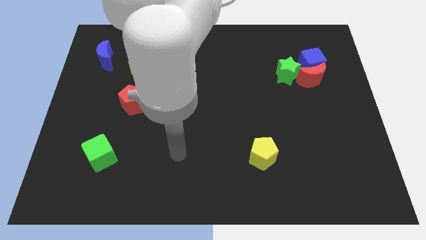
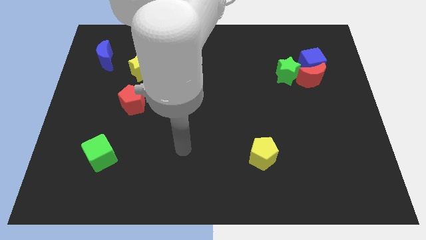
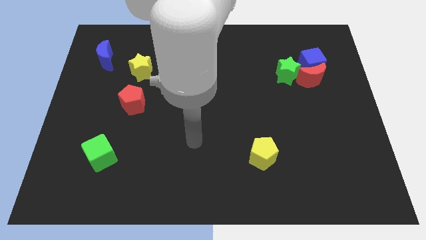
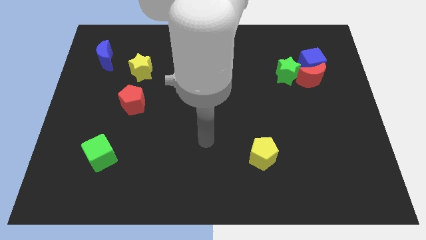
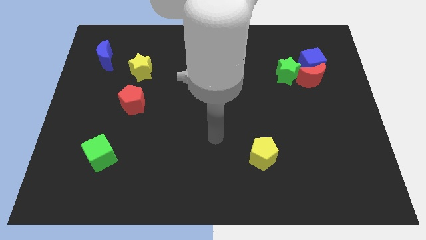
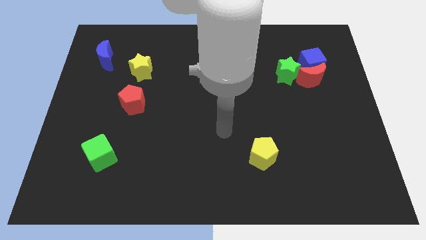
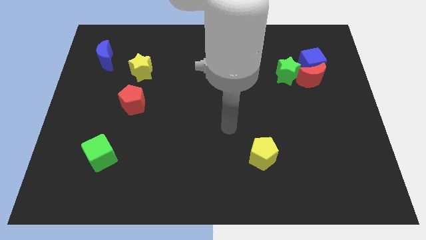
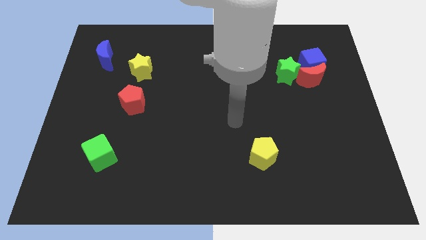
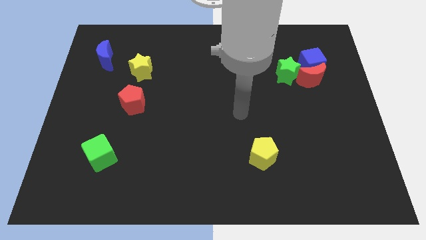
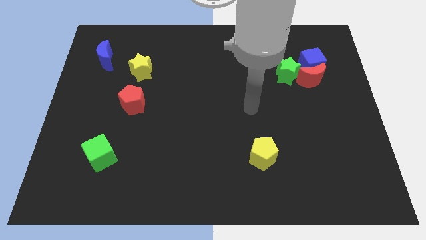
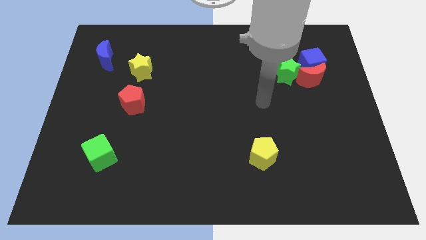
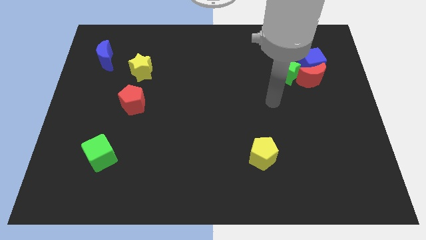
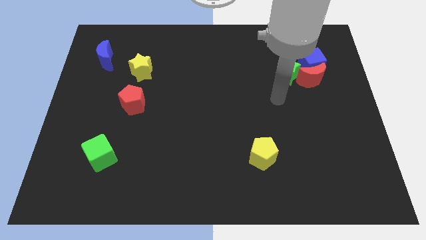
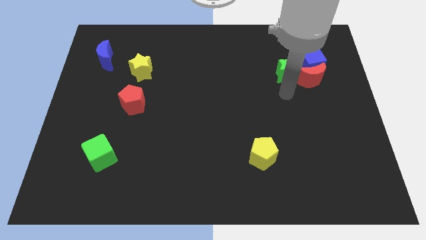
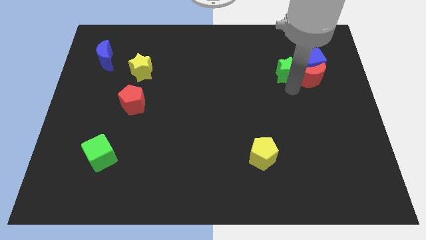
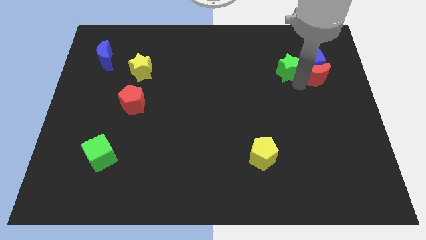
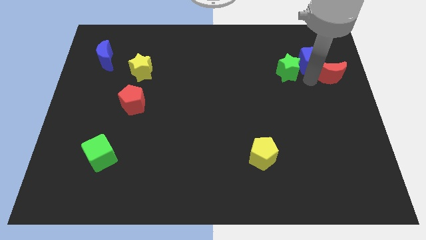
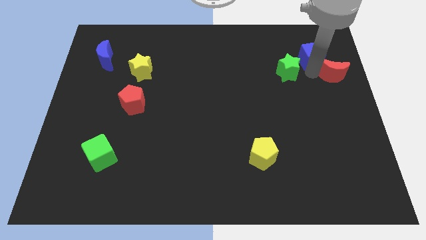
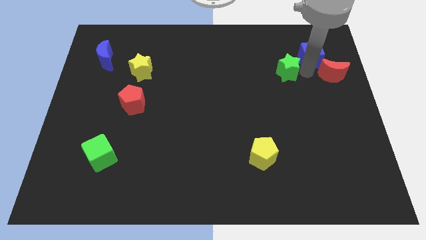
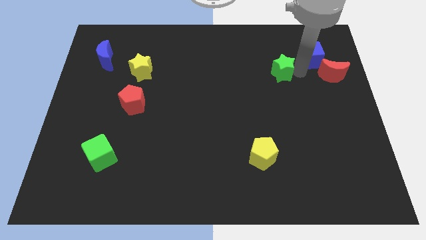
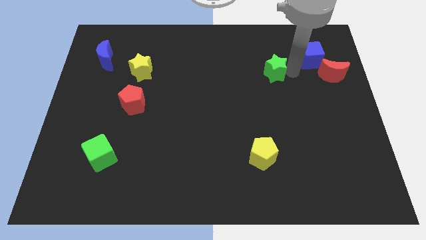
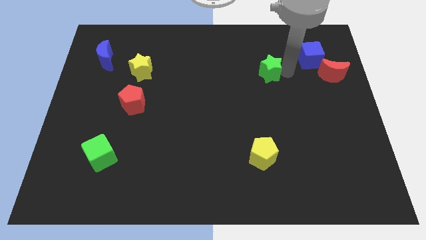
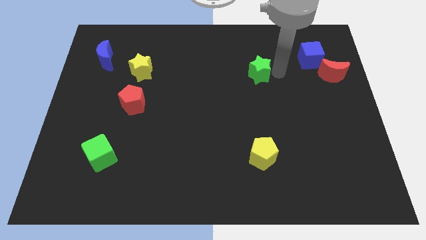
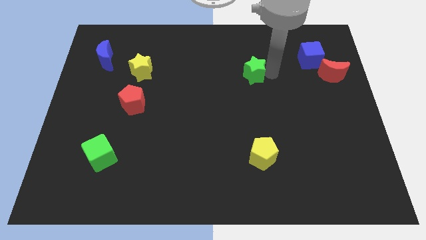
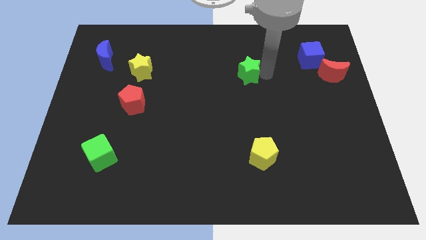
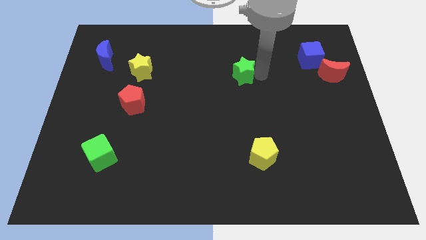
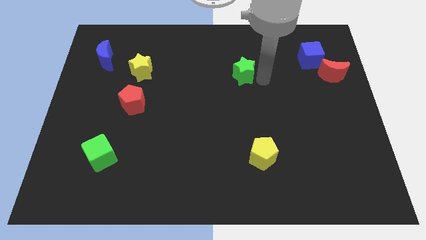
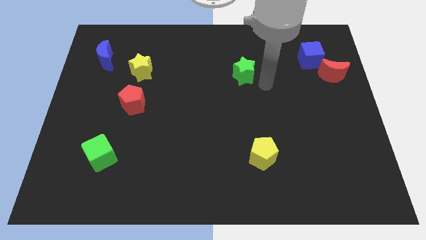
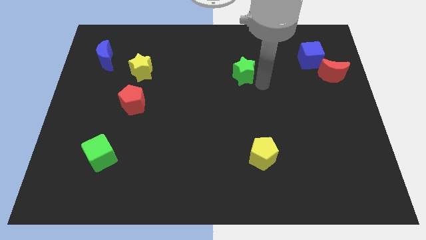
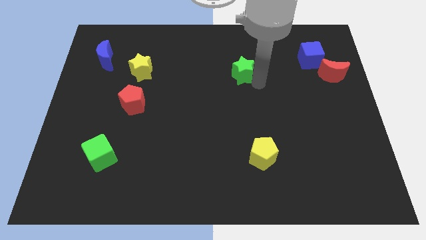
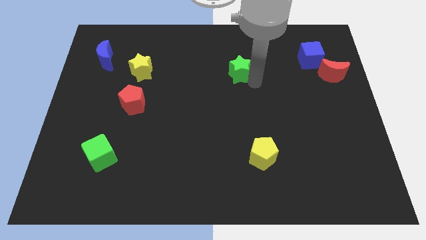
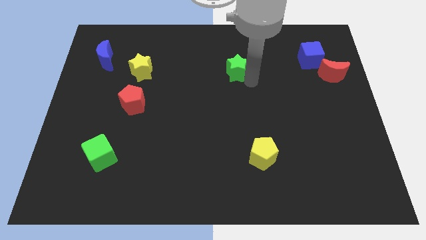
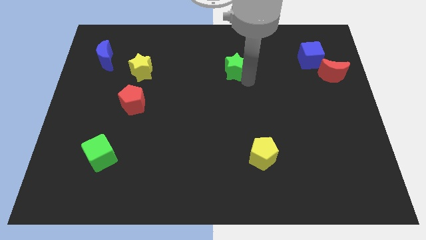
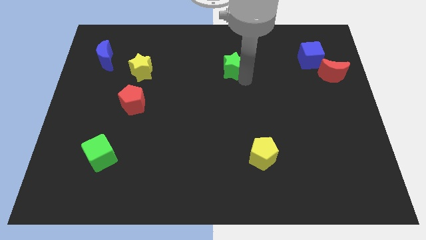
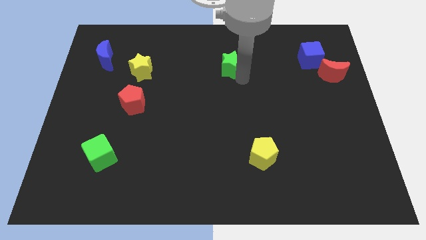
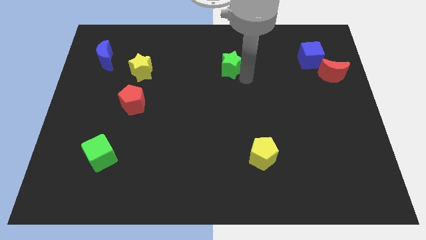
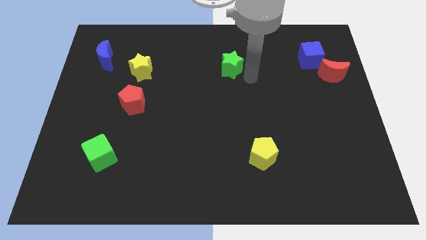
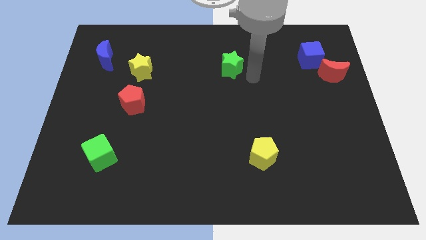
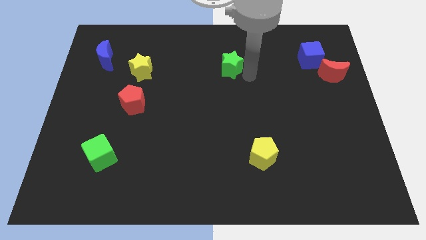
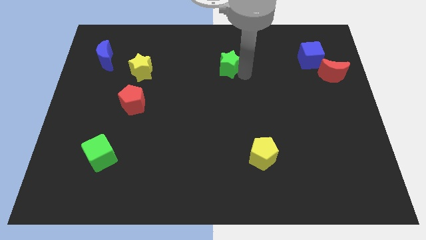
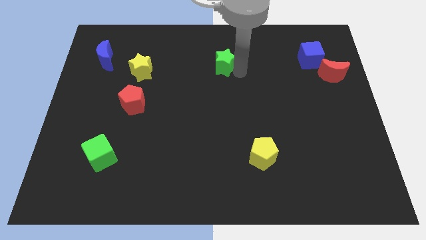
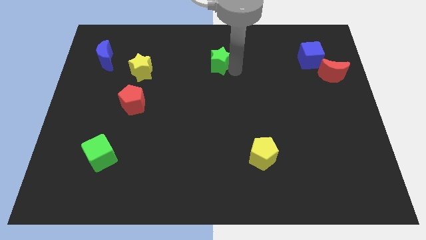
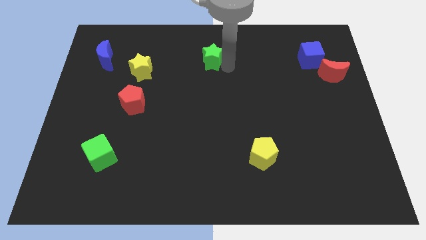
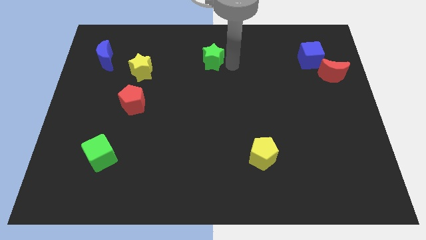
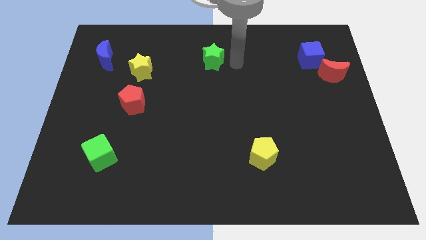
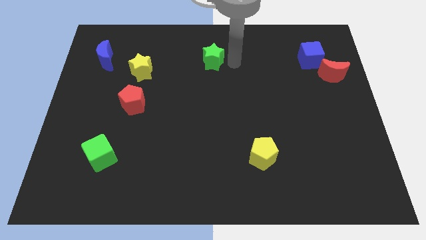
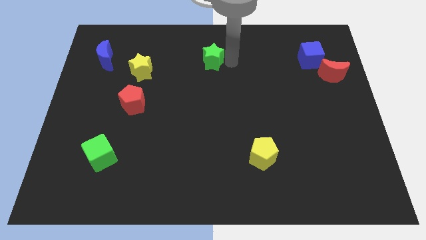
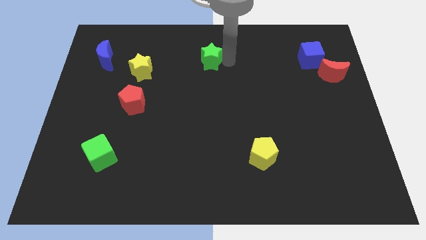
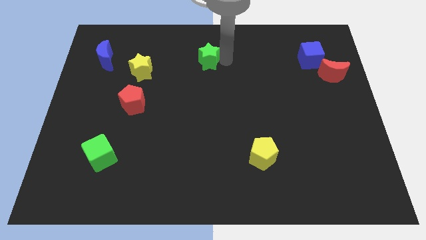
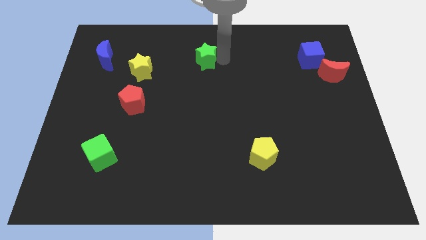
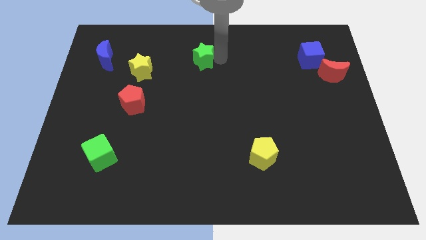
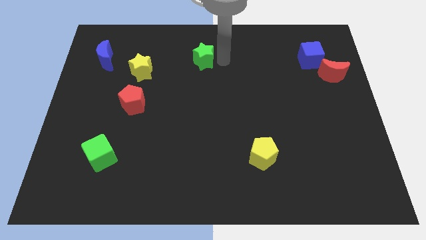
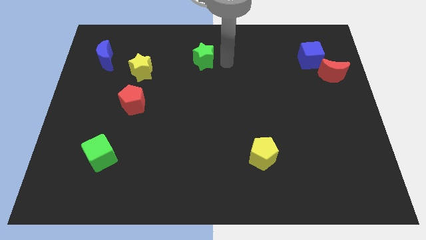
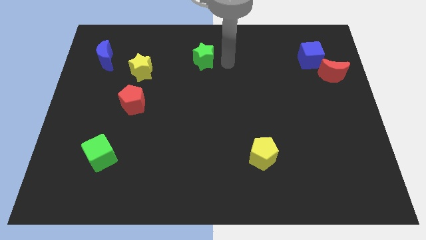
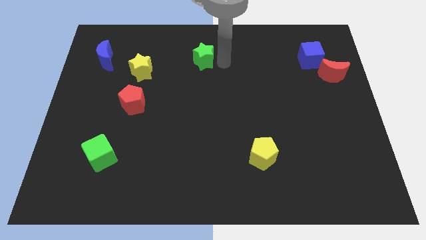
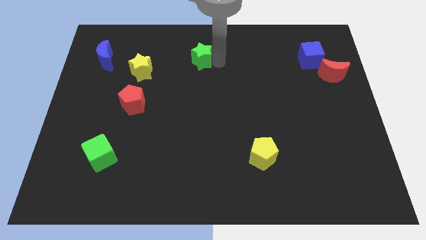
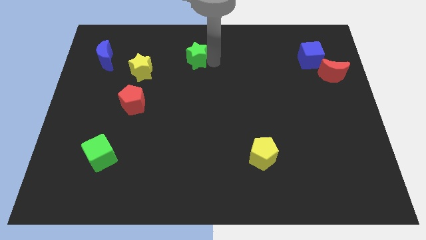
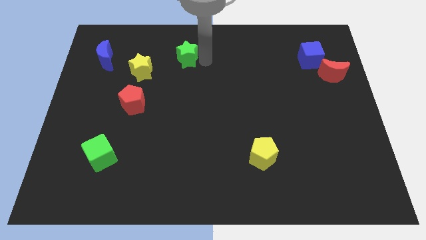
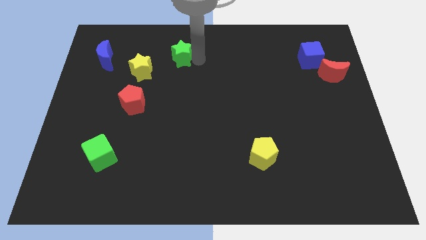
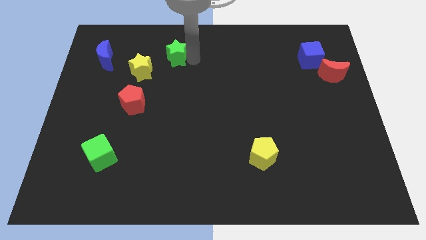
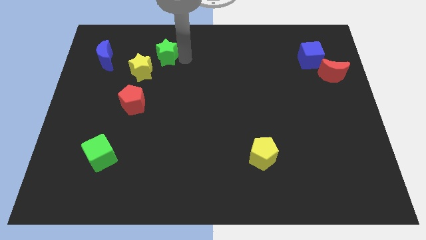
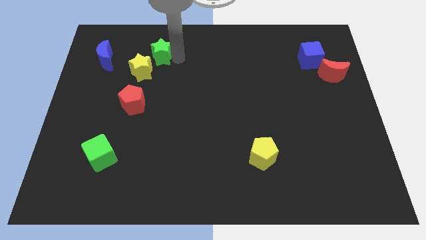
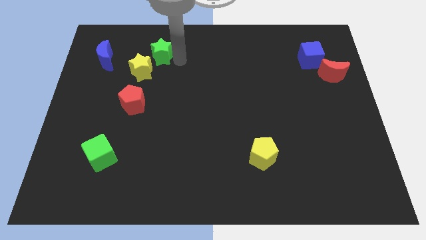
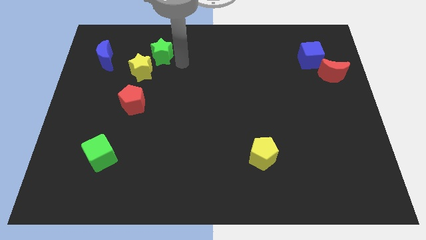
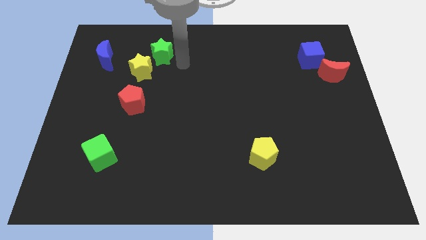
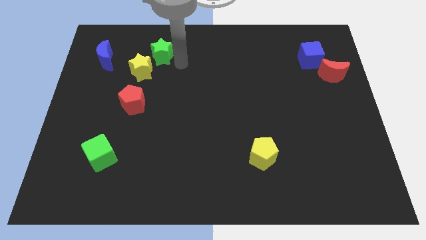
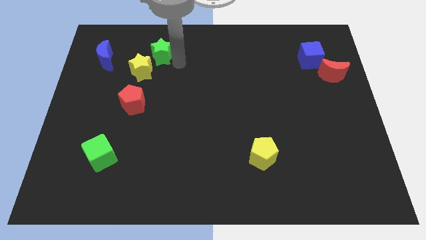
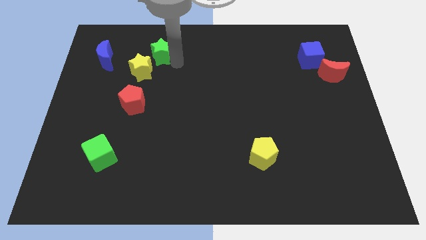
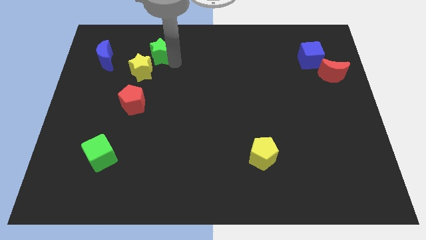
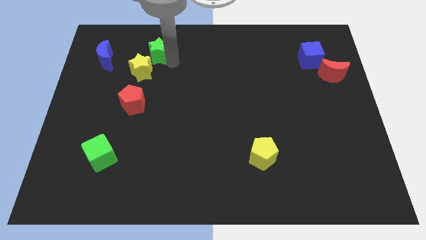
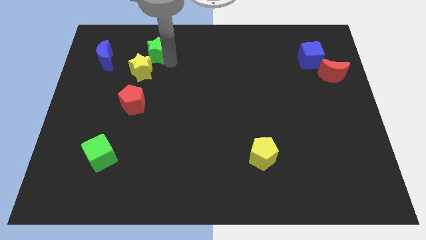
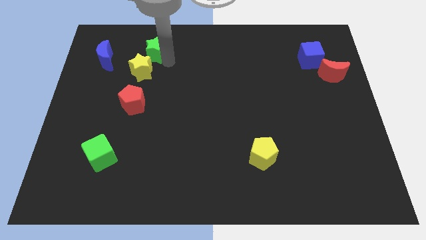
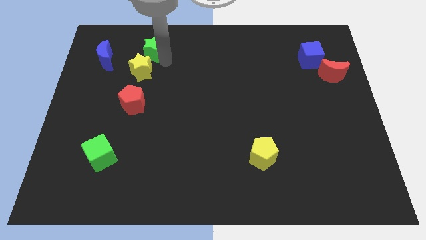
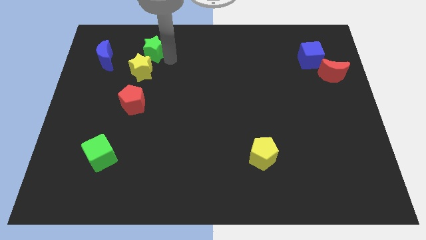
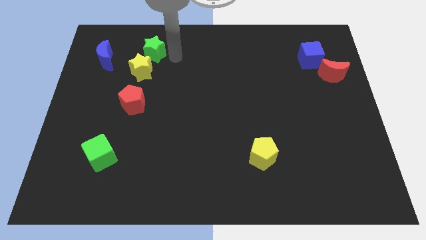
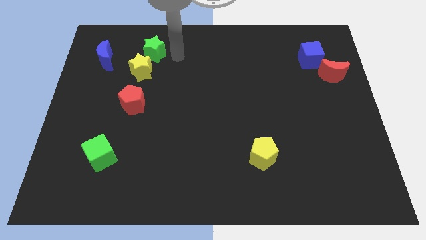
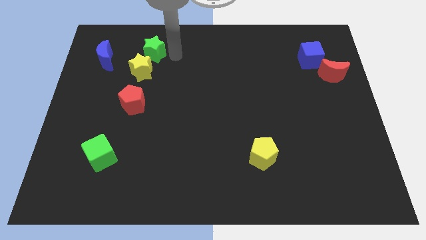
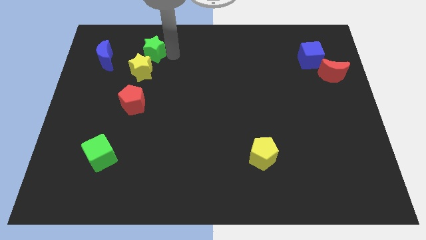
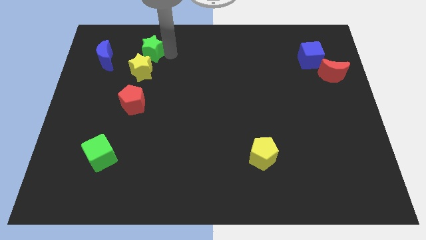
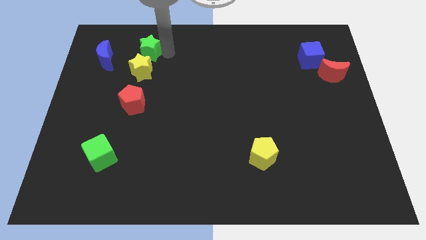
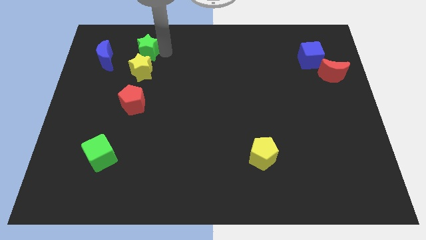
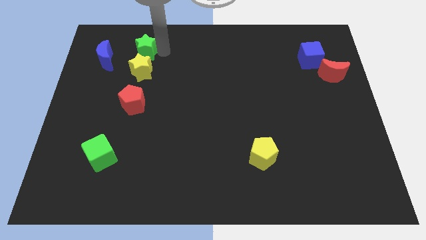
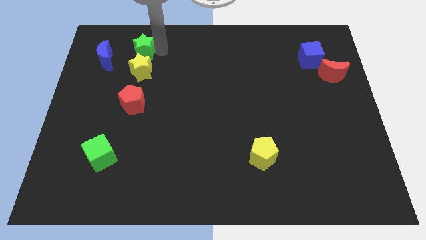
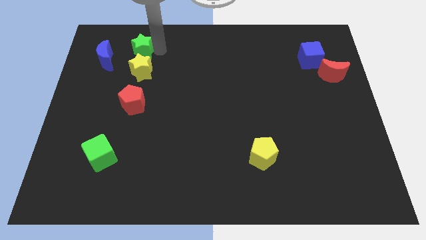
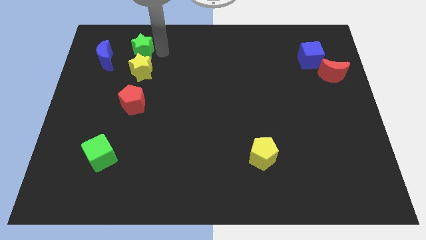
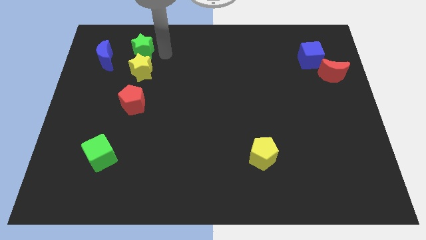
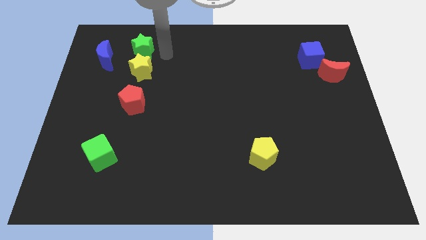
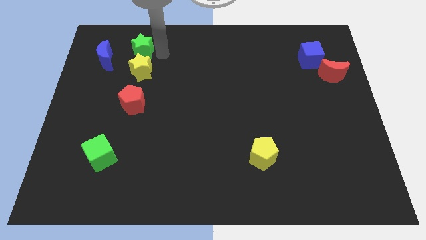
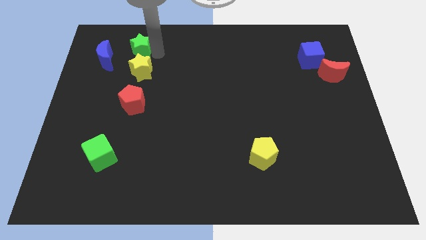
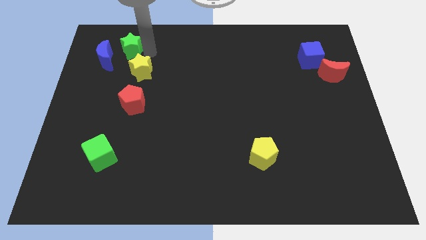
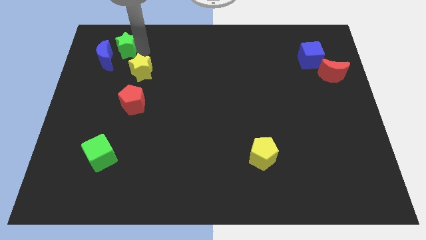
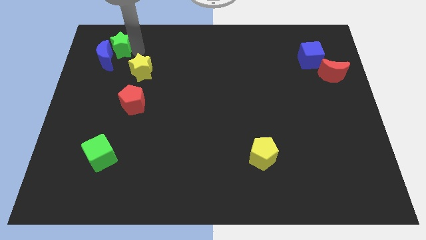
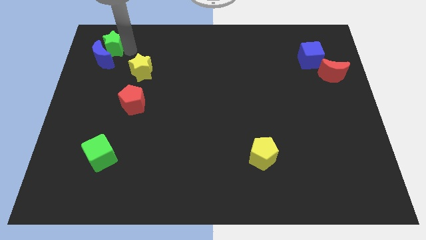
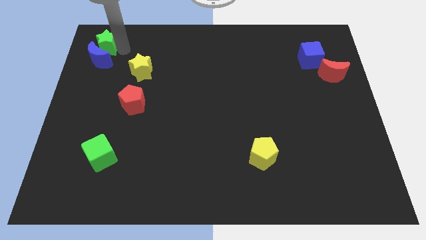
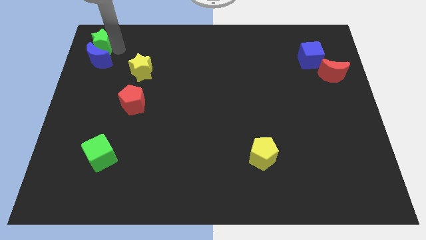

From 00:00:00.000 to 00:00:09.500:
push the green star to the top left
